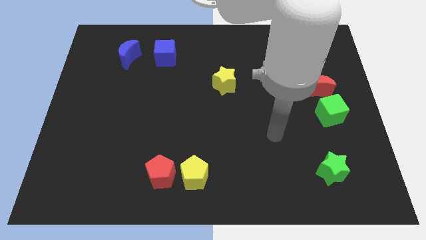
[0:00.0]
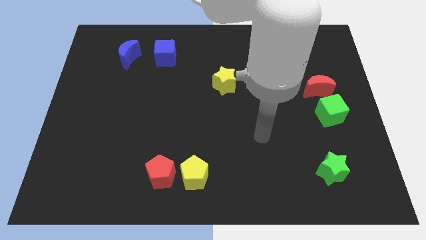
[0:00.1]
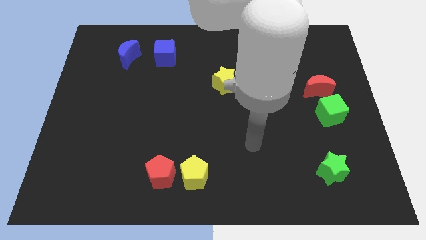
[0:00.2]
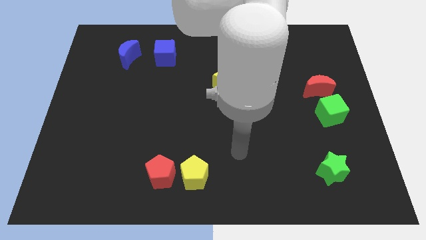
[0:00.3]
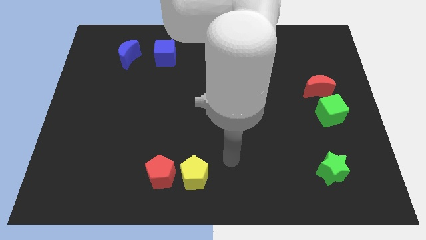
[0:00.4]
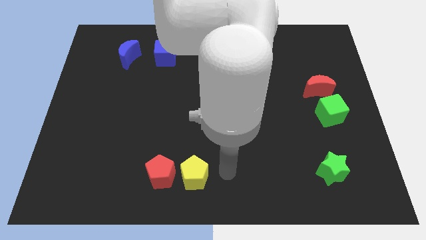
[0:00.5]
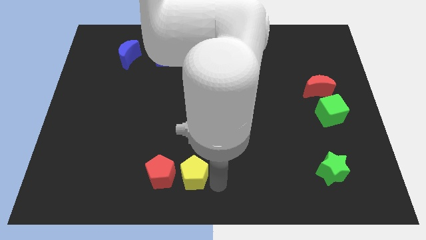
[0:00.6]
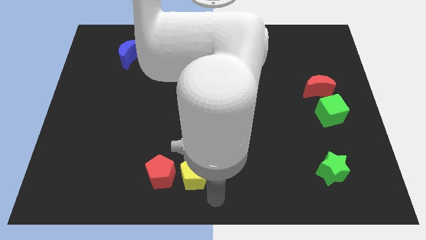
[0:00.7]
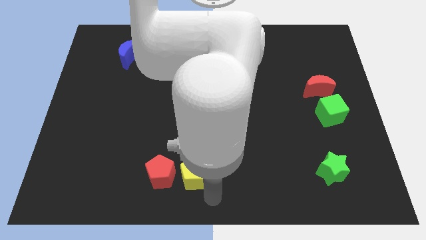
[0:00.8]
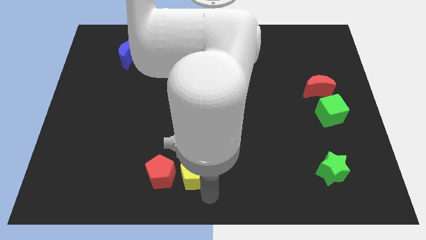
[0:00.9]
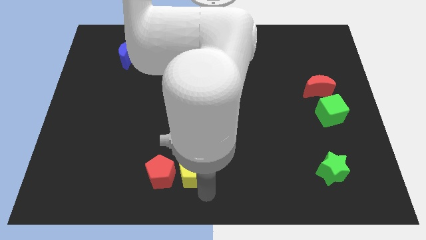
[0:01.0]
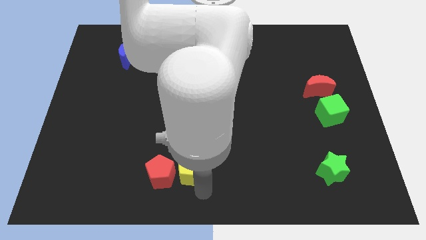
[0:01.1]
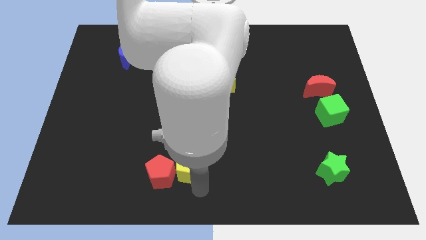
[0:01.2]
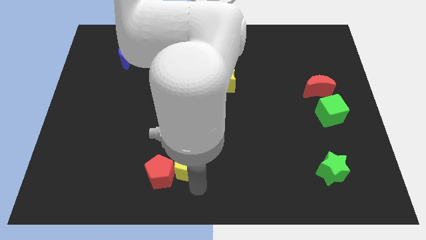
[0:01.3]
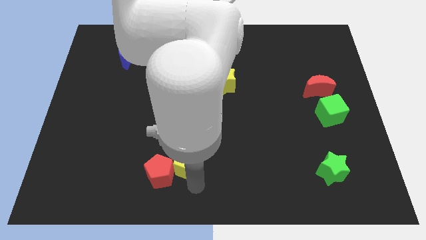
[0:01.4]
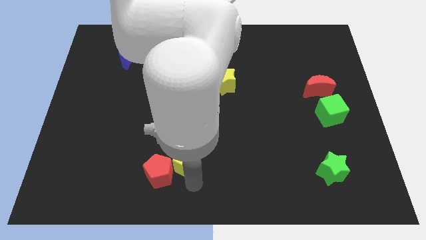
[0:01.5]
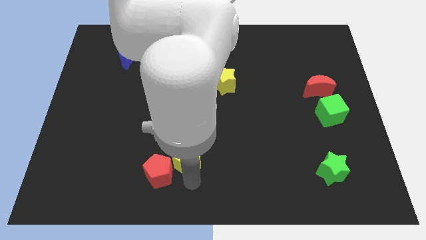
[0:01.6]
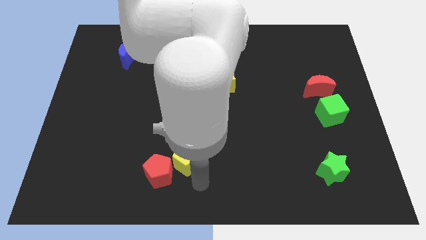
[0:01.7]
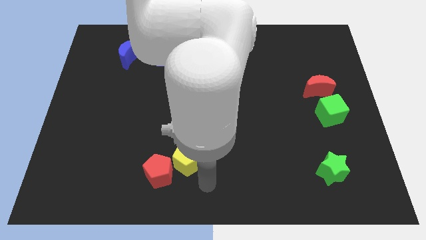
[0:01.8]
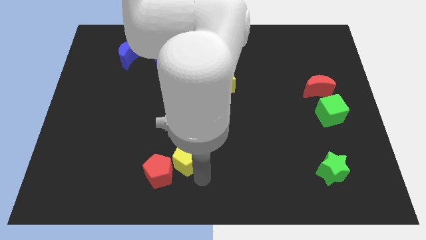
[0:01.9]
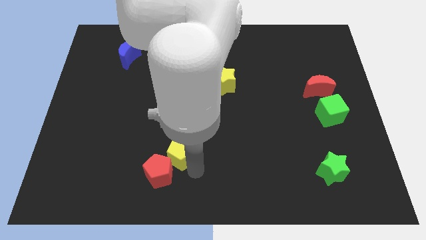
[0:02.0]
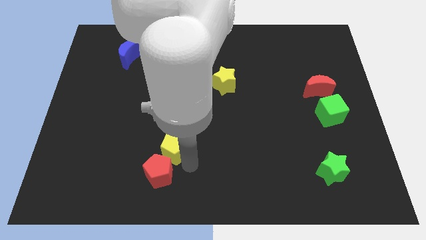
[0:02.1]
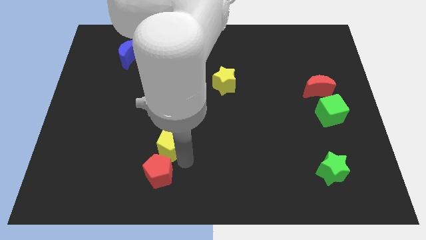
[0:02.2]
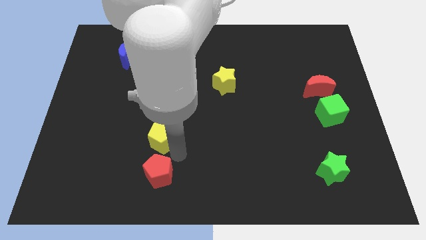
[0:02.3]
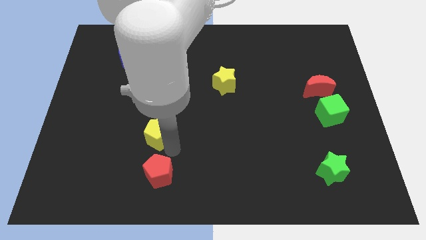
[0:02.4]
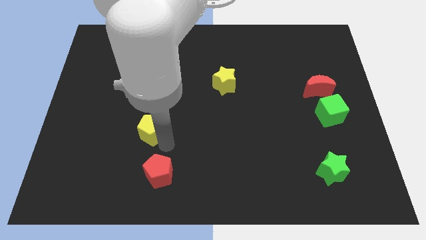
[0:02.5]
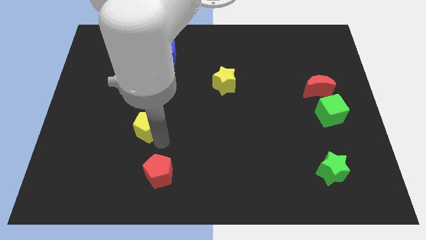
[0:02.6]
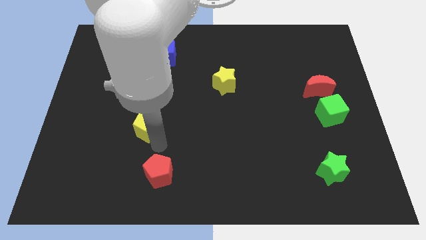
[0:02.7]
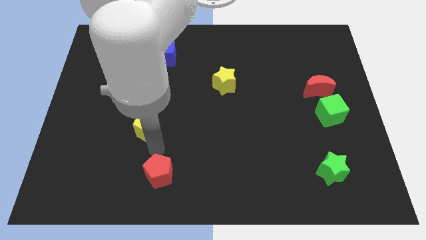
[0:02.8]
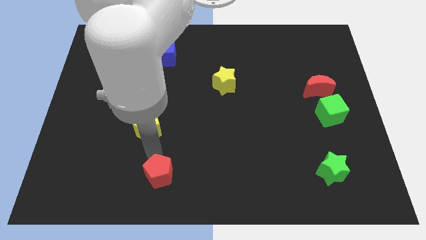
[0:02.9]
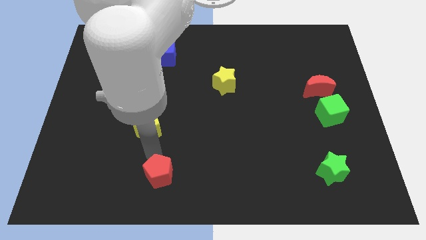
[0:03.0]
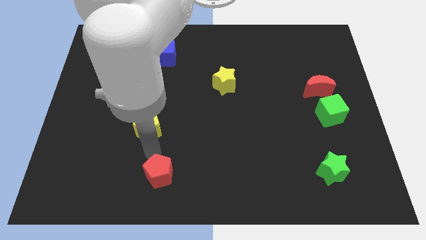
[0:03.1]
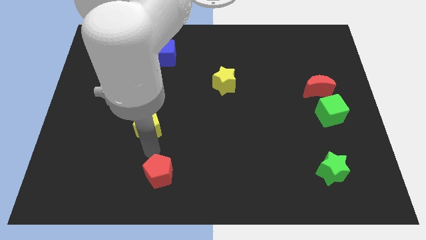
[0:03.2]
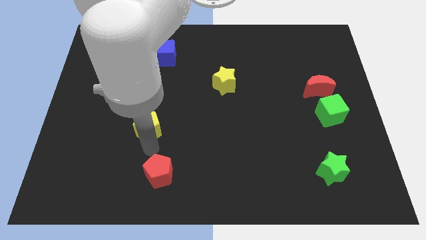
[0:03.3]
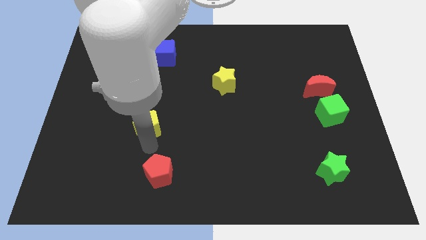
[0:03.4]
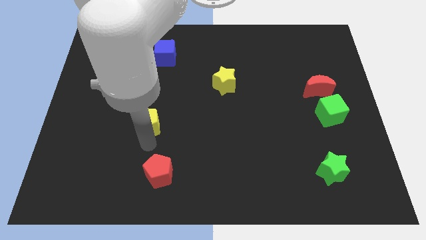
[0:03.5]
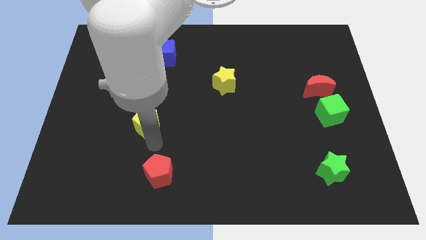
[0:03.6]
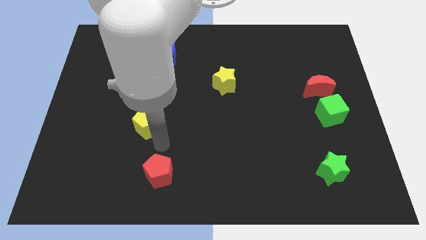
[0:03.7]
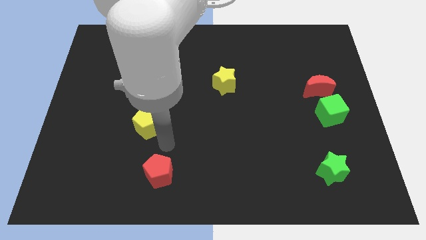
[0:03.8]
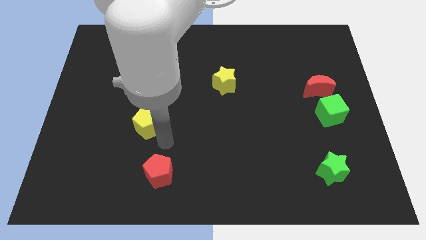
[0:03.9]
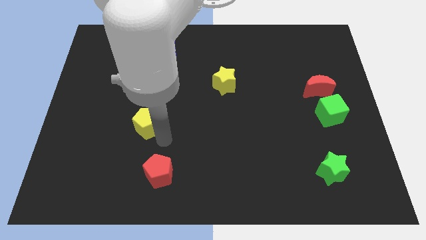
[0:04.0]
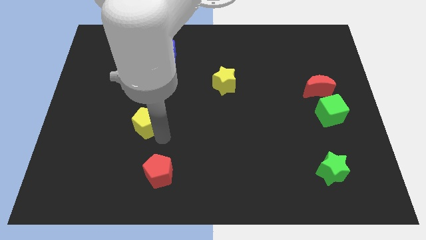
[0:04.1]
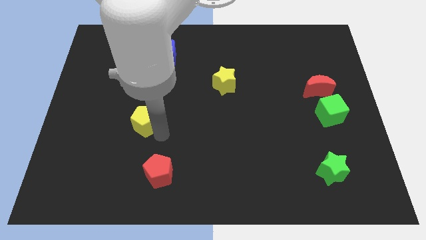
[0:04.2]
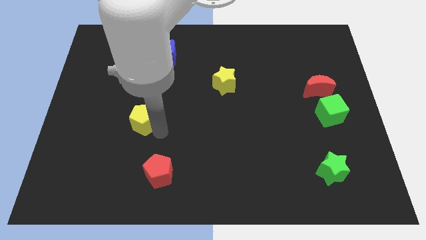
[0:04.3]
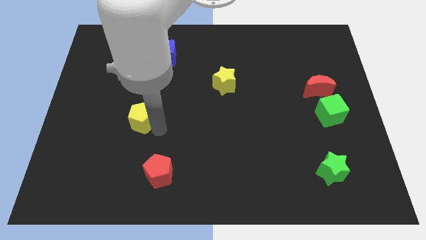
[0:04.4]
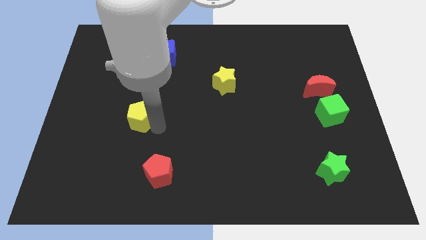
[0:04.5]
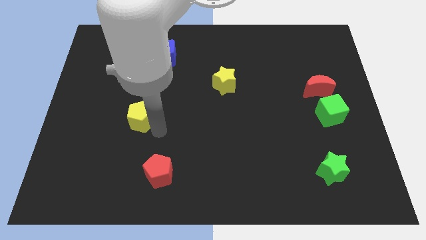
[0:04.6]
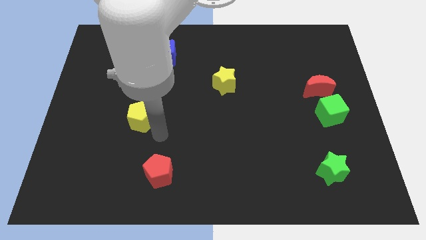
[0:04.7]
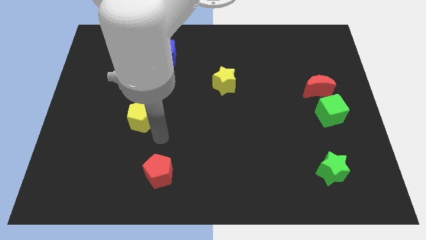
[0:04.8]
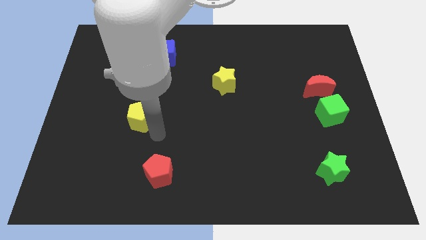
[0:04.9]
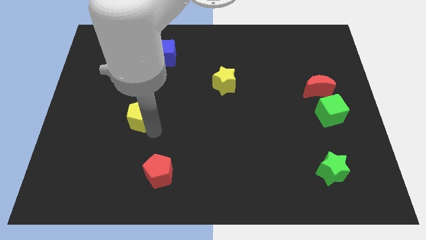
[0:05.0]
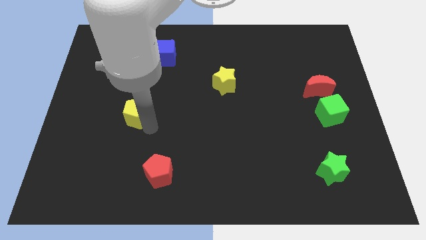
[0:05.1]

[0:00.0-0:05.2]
move the yellow pentagon up and to the left diagonally

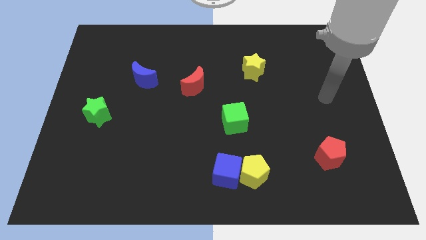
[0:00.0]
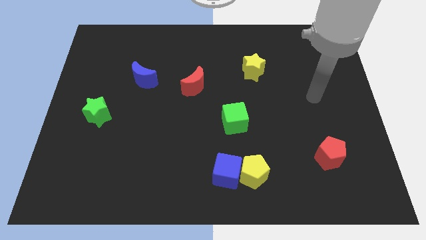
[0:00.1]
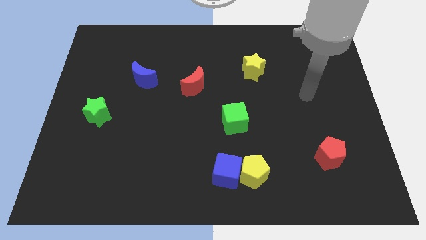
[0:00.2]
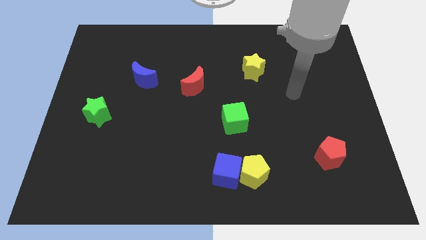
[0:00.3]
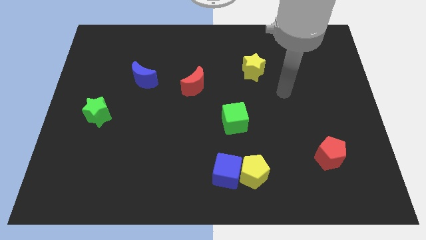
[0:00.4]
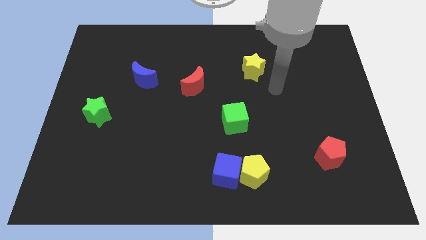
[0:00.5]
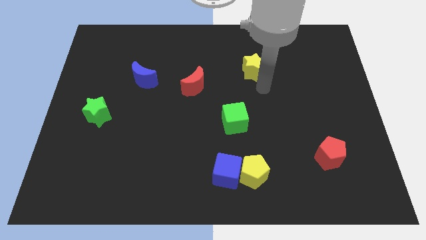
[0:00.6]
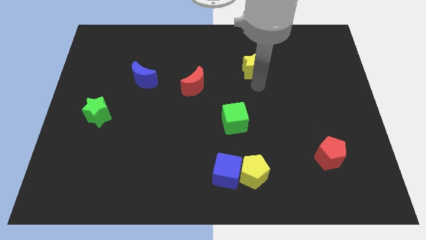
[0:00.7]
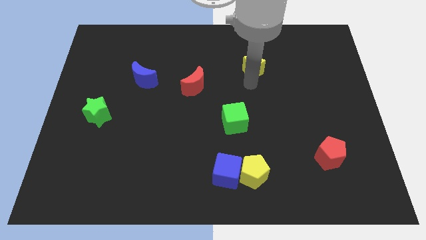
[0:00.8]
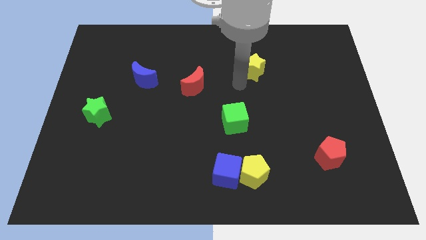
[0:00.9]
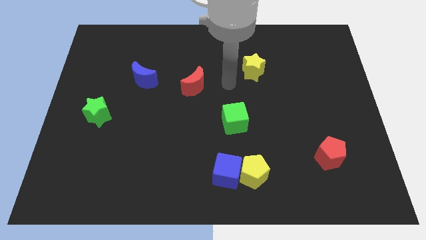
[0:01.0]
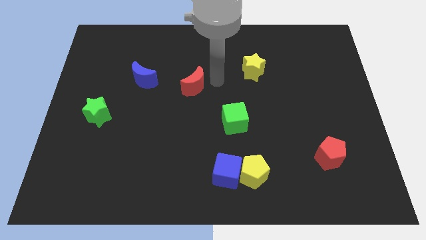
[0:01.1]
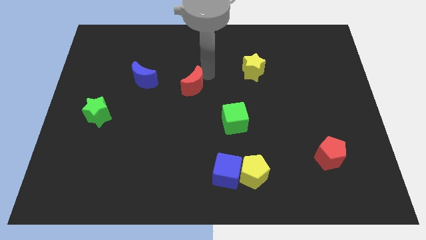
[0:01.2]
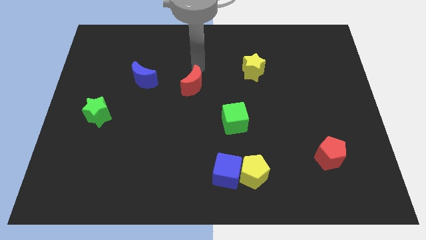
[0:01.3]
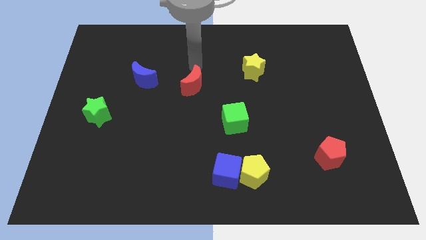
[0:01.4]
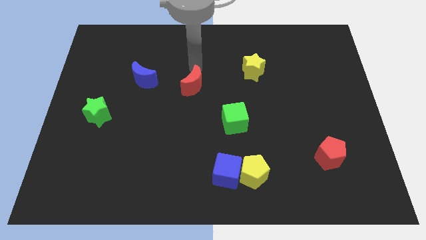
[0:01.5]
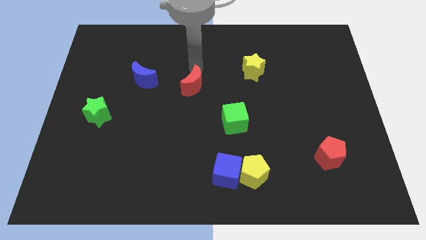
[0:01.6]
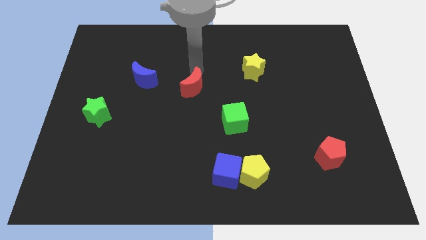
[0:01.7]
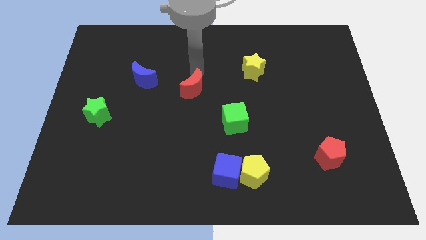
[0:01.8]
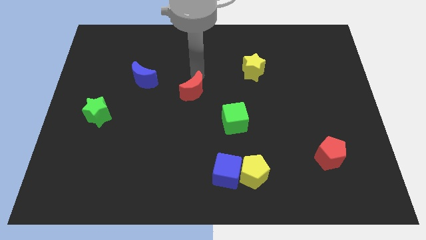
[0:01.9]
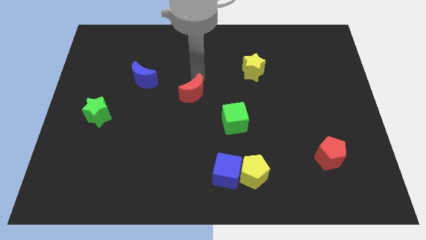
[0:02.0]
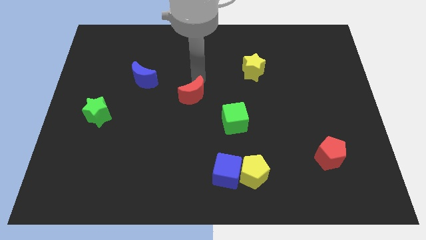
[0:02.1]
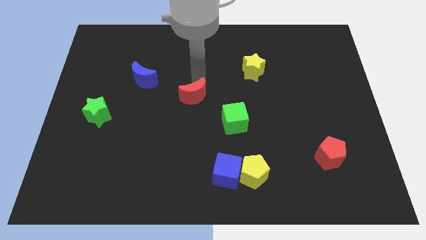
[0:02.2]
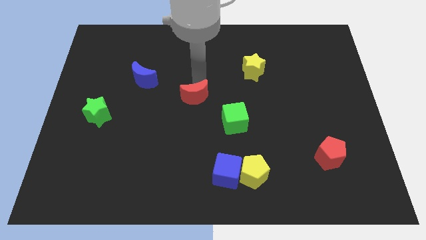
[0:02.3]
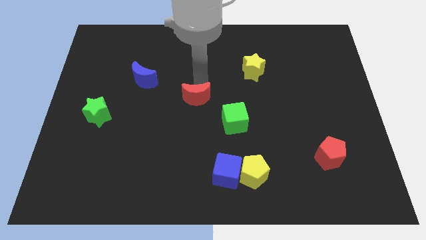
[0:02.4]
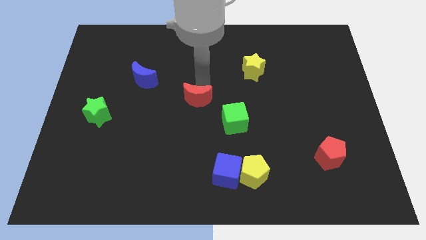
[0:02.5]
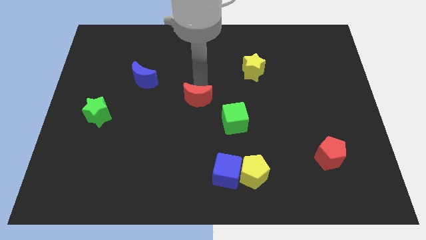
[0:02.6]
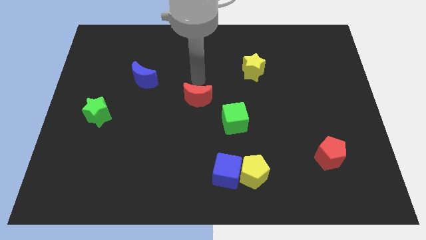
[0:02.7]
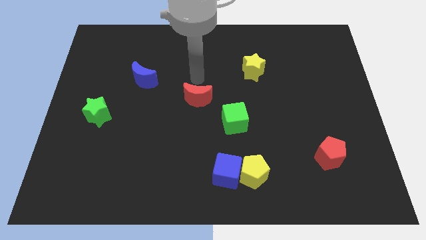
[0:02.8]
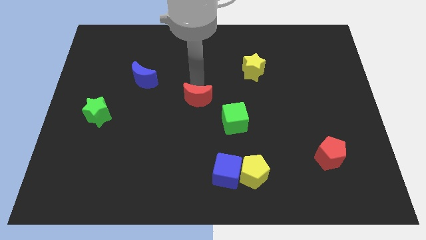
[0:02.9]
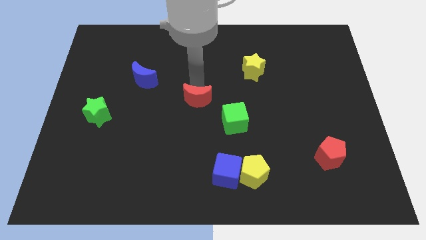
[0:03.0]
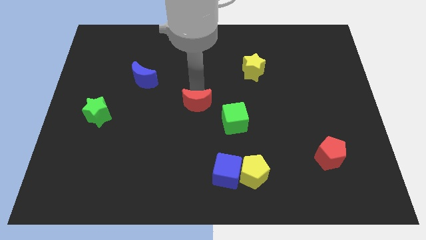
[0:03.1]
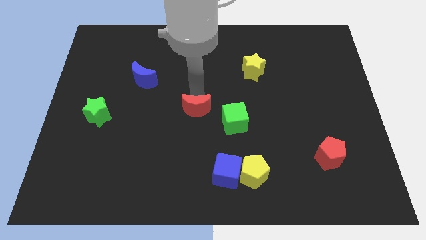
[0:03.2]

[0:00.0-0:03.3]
slightly push the red moon downwards
